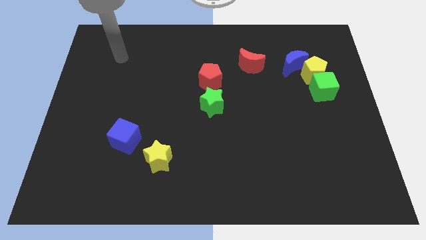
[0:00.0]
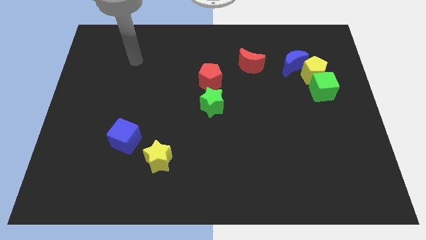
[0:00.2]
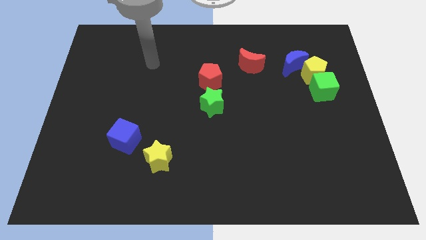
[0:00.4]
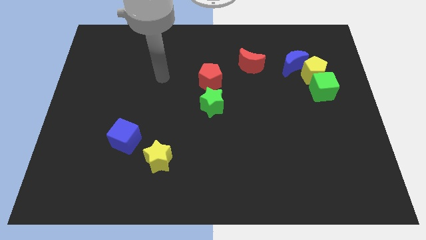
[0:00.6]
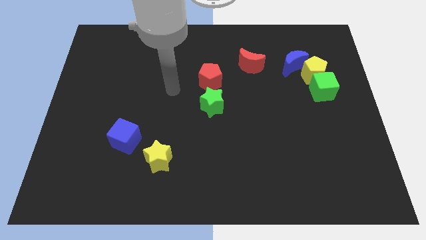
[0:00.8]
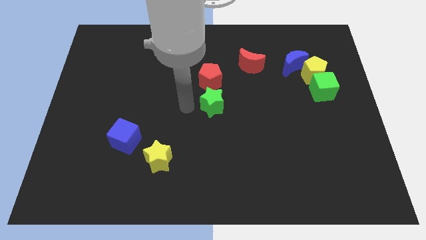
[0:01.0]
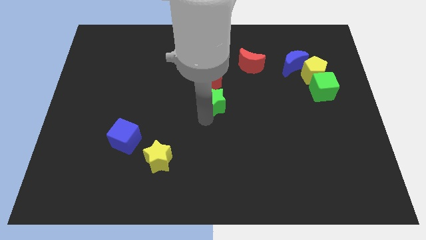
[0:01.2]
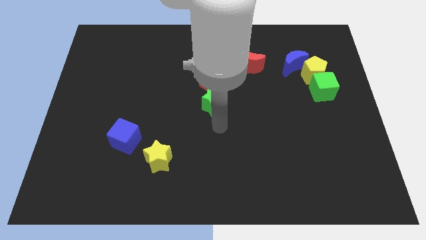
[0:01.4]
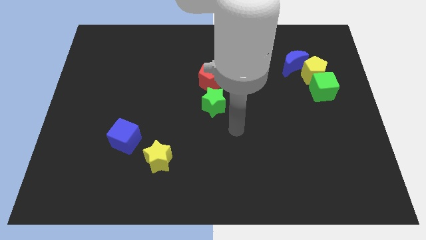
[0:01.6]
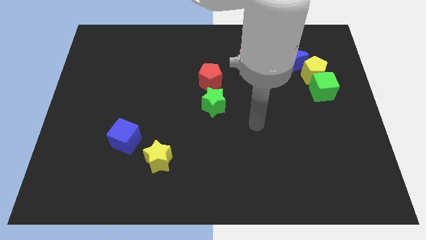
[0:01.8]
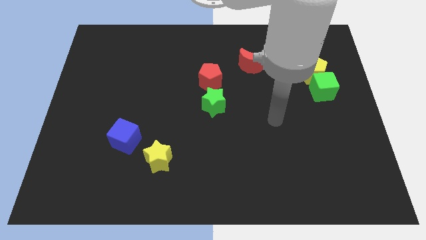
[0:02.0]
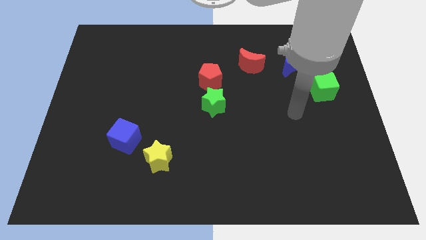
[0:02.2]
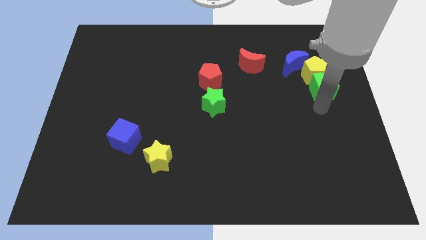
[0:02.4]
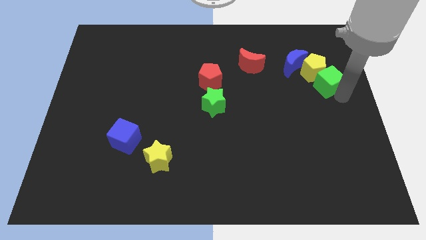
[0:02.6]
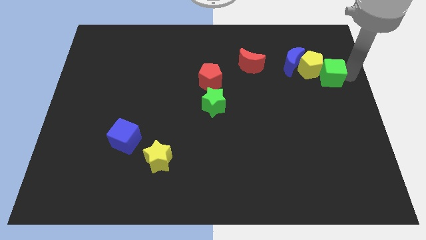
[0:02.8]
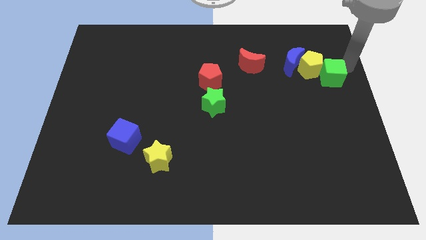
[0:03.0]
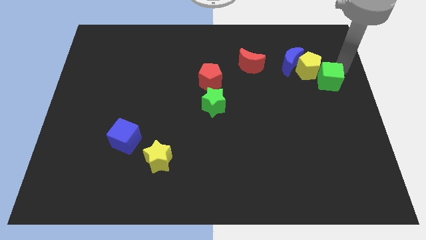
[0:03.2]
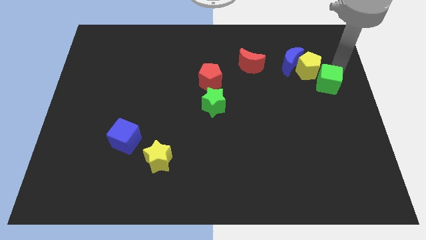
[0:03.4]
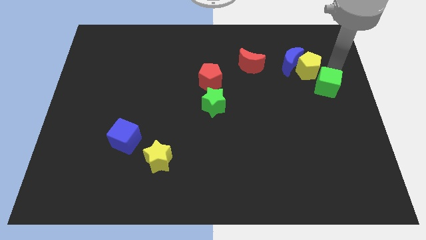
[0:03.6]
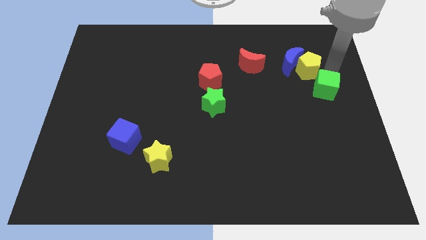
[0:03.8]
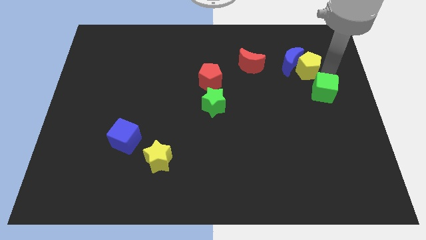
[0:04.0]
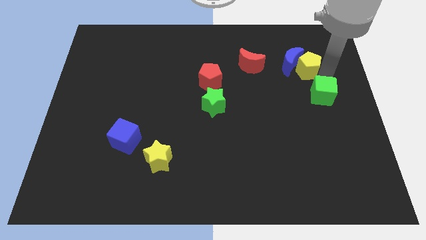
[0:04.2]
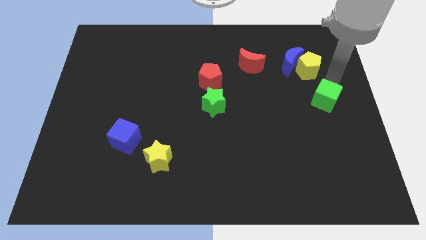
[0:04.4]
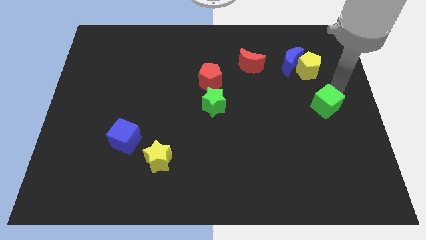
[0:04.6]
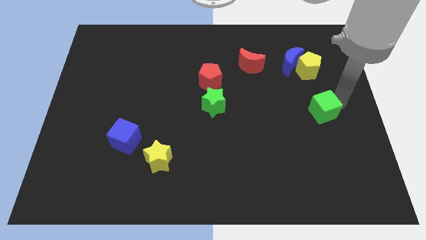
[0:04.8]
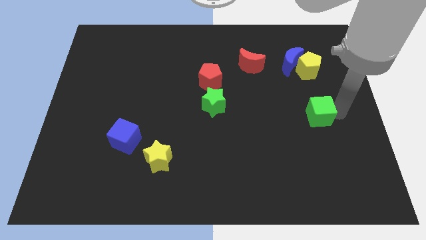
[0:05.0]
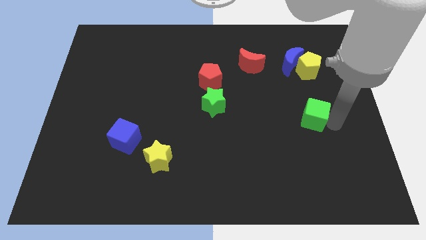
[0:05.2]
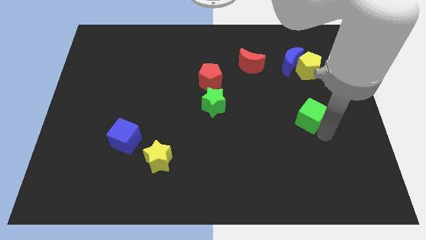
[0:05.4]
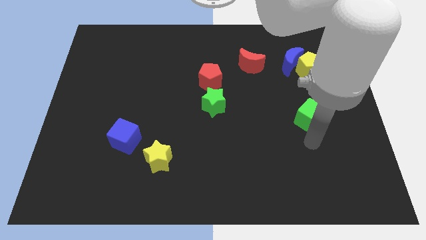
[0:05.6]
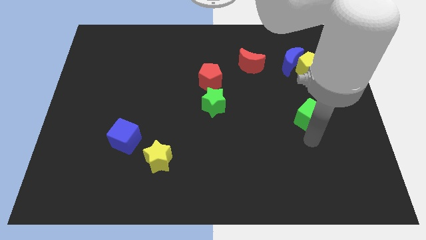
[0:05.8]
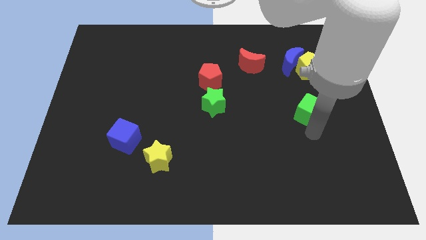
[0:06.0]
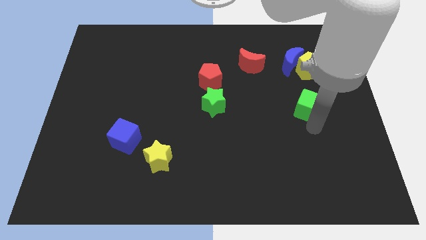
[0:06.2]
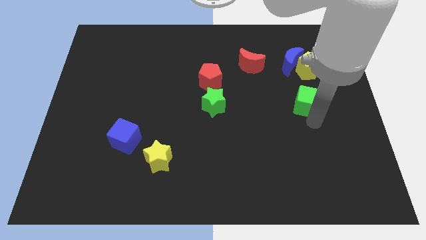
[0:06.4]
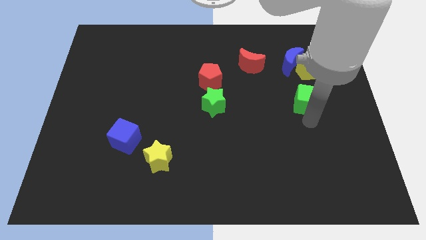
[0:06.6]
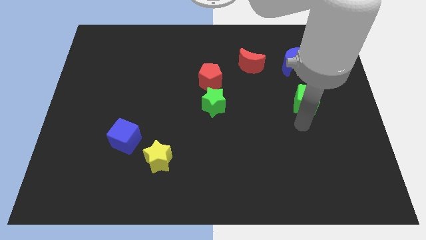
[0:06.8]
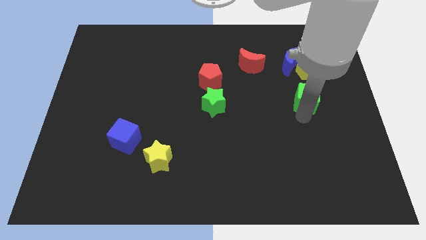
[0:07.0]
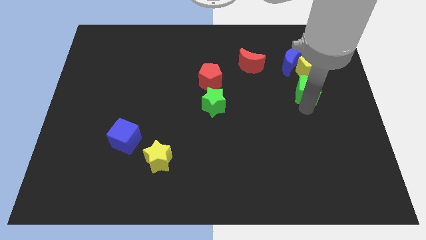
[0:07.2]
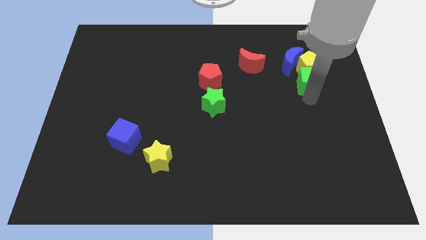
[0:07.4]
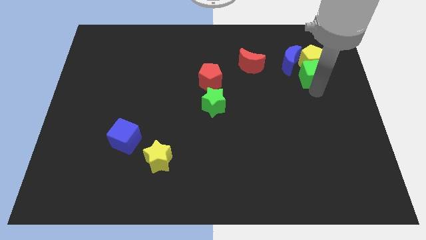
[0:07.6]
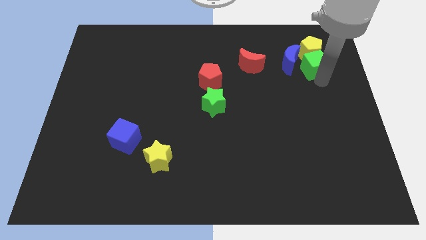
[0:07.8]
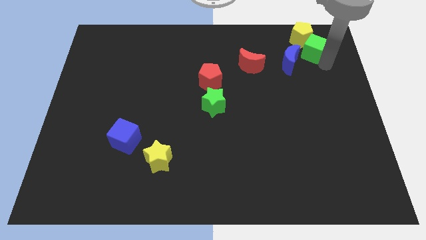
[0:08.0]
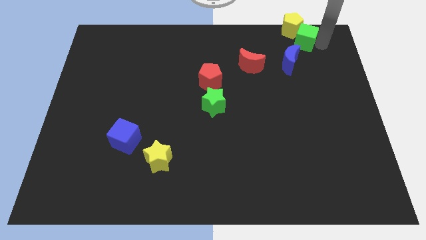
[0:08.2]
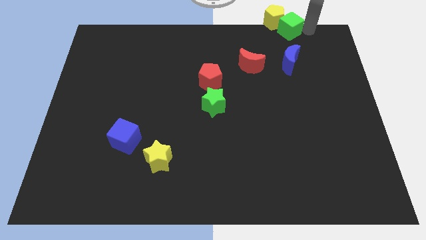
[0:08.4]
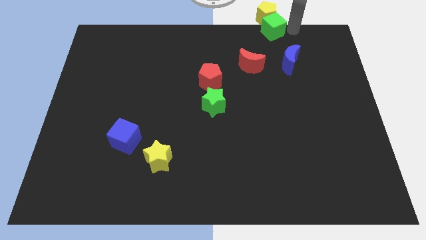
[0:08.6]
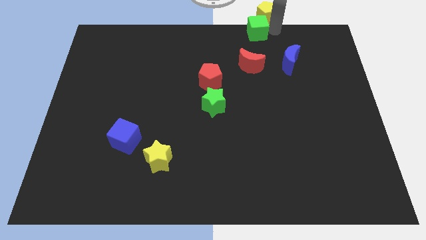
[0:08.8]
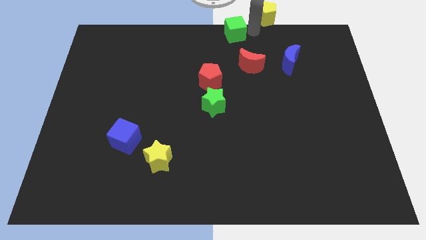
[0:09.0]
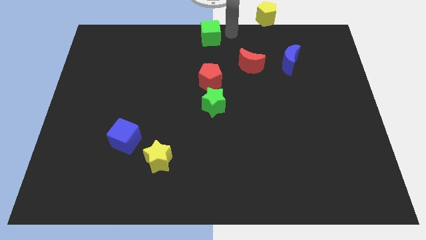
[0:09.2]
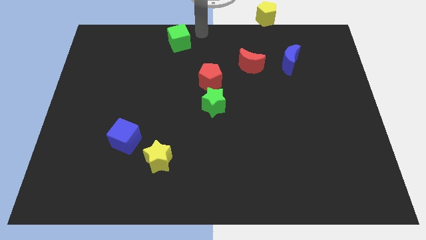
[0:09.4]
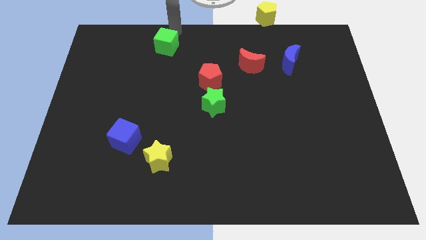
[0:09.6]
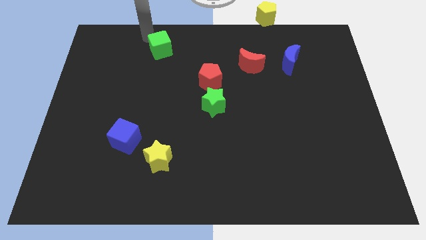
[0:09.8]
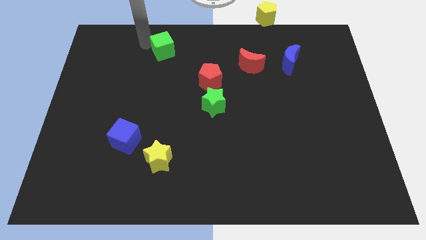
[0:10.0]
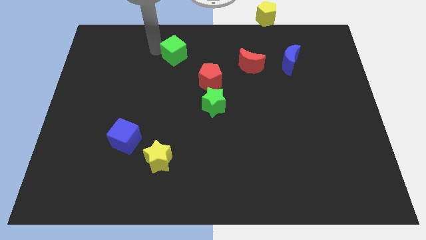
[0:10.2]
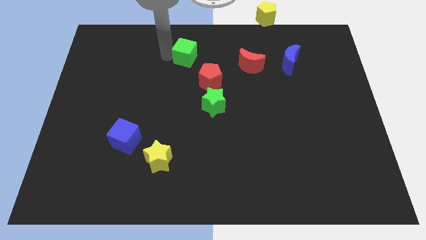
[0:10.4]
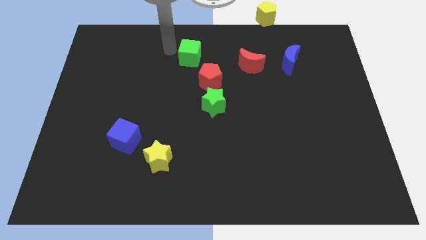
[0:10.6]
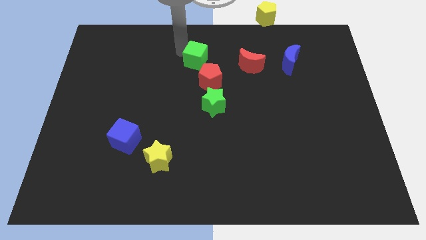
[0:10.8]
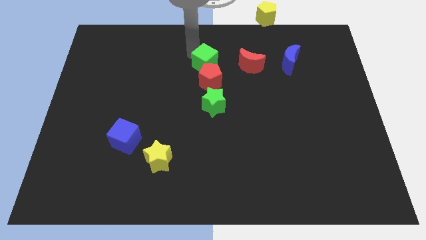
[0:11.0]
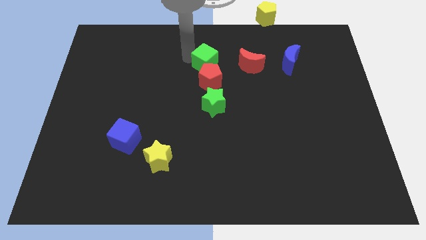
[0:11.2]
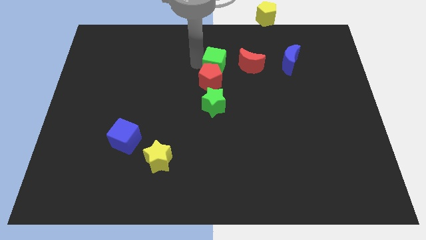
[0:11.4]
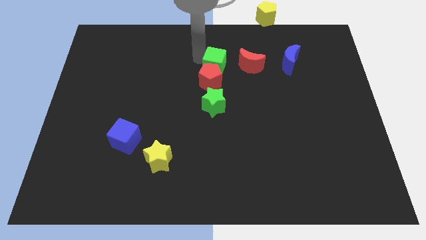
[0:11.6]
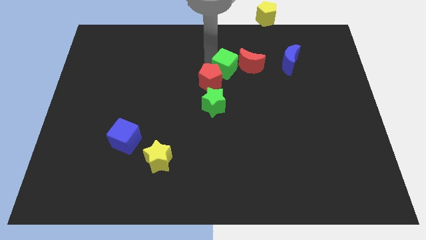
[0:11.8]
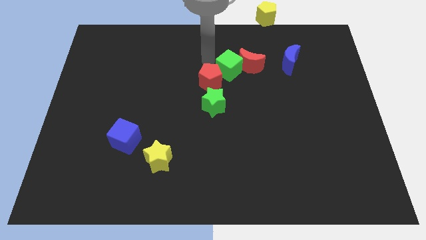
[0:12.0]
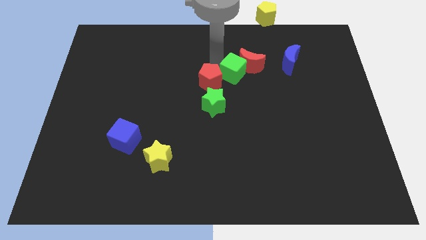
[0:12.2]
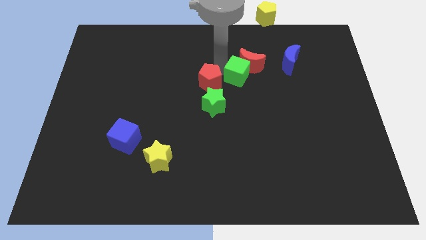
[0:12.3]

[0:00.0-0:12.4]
push the green cube to the top right side of the green star

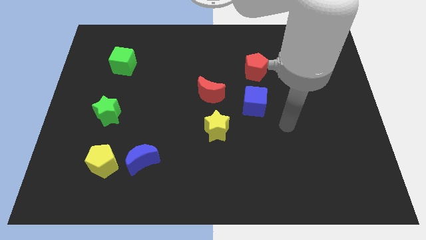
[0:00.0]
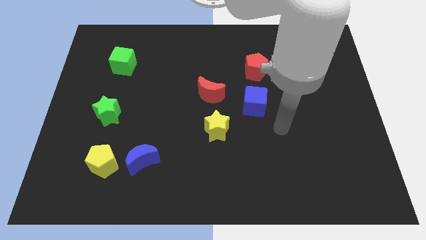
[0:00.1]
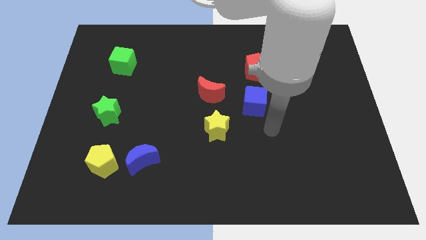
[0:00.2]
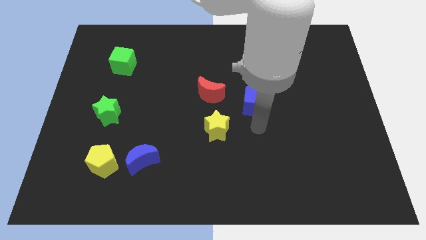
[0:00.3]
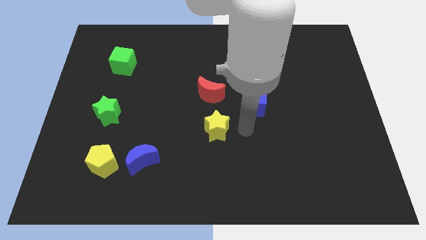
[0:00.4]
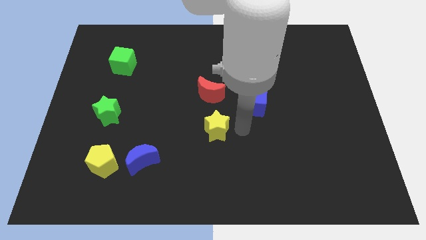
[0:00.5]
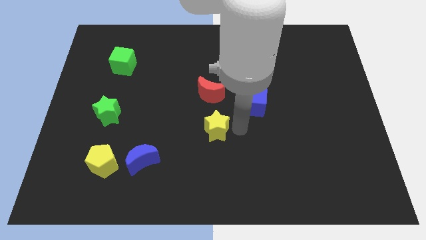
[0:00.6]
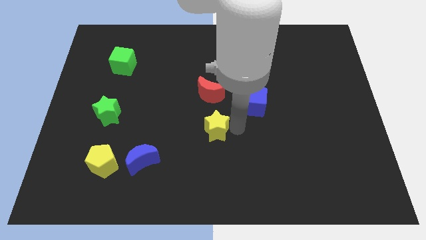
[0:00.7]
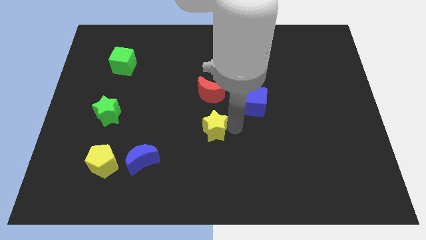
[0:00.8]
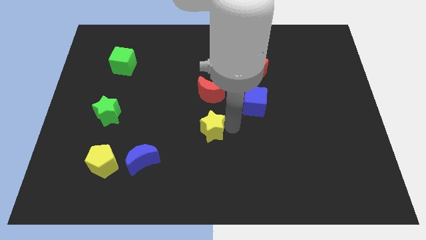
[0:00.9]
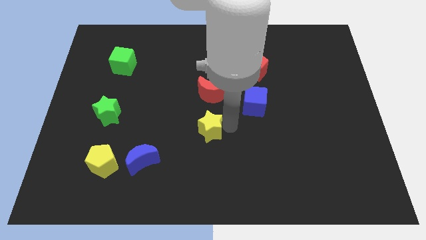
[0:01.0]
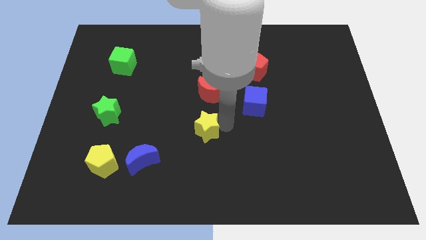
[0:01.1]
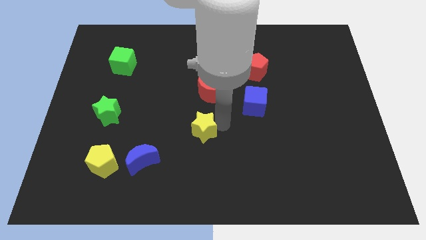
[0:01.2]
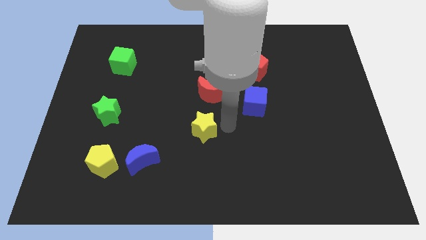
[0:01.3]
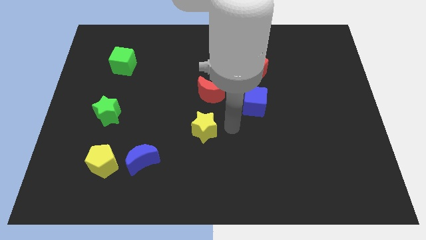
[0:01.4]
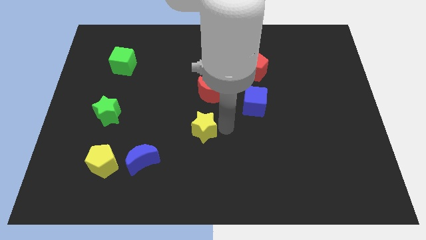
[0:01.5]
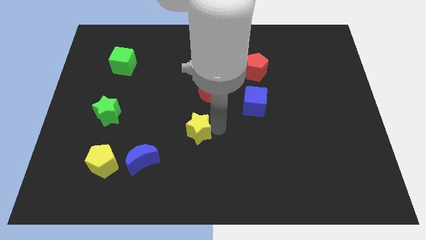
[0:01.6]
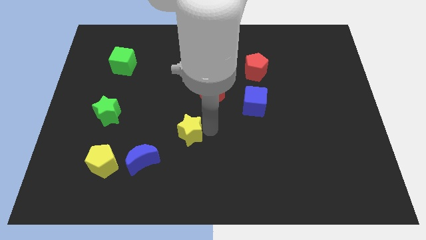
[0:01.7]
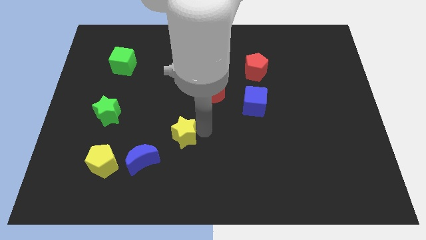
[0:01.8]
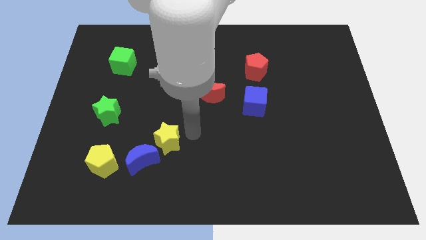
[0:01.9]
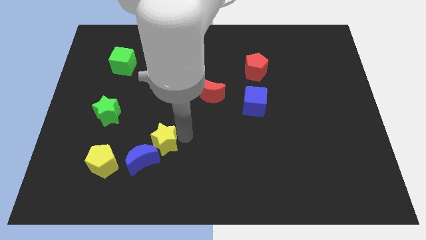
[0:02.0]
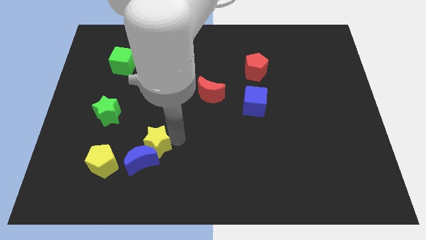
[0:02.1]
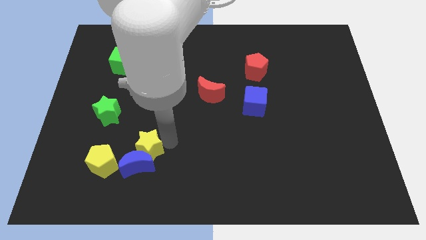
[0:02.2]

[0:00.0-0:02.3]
push the yellow star to the top right of the yellow pentagon
